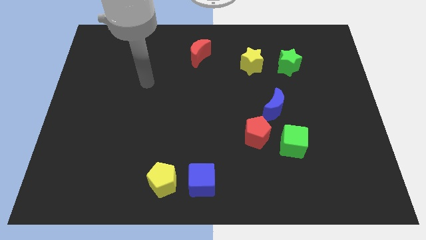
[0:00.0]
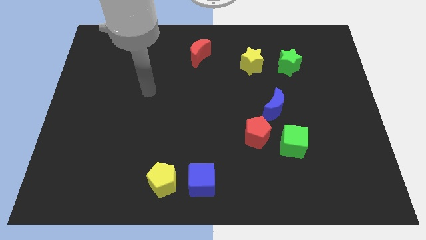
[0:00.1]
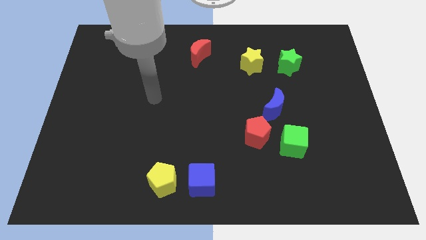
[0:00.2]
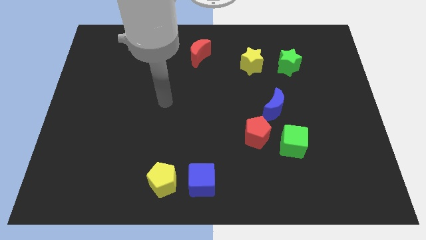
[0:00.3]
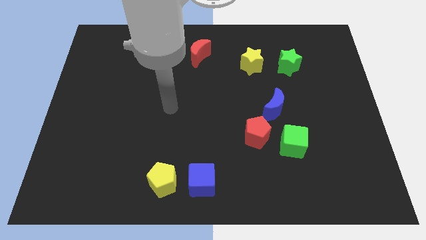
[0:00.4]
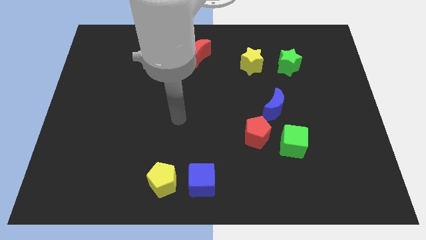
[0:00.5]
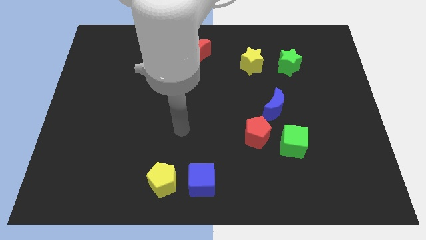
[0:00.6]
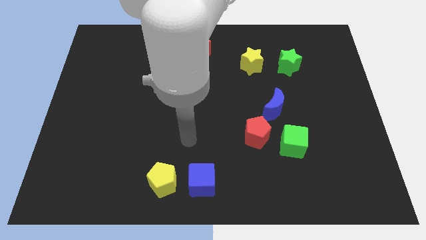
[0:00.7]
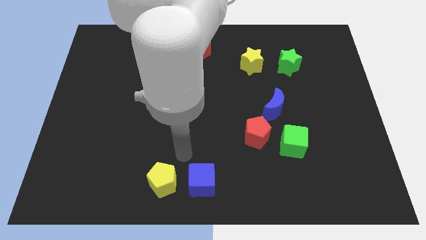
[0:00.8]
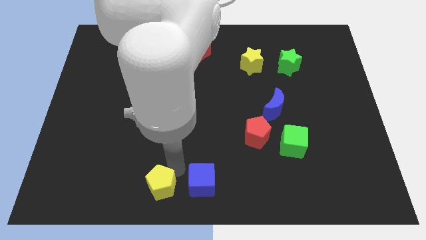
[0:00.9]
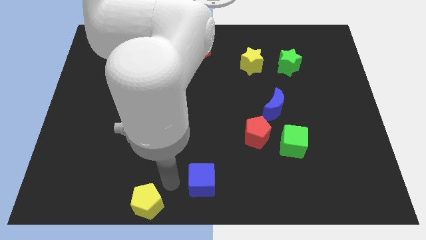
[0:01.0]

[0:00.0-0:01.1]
pull the blue cube apart from the yellow pentagon

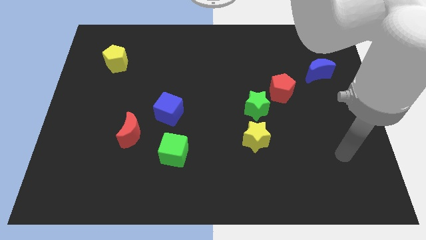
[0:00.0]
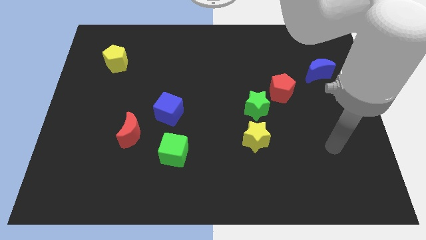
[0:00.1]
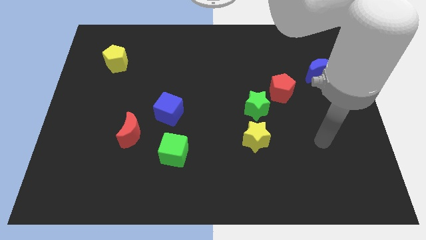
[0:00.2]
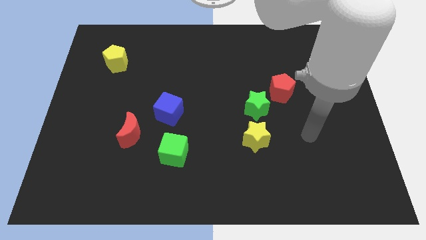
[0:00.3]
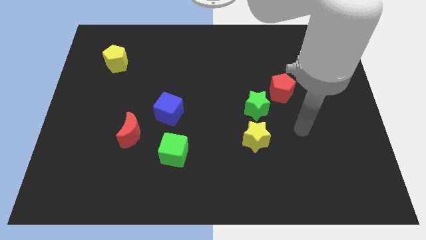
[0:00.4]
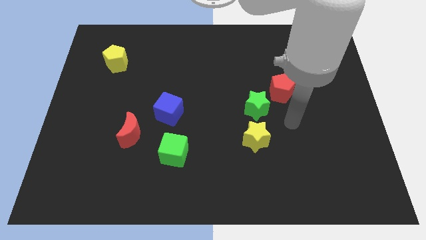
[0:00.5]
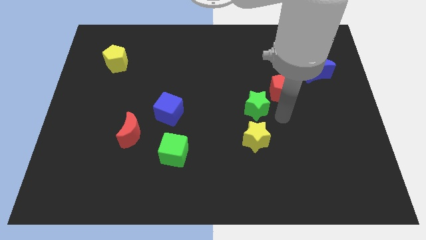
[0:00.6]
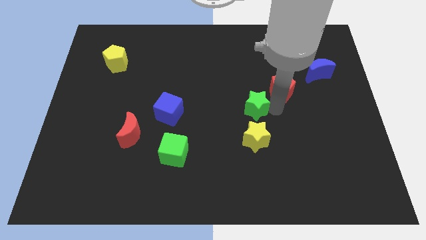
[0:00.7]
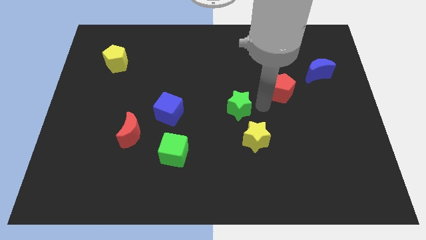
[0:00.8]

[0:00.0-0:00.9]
move the red pentagon away from the green star

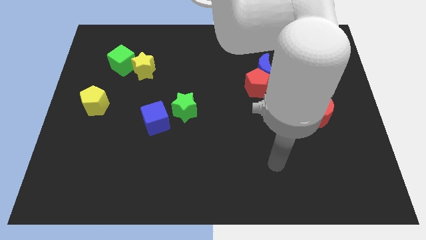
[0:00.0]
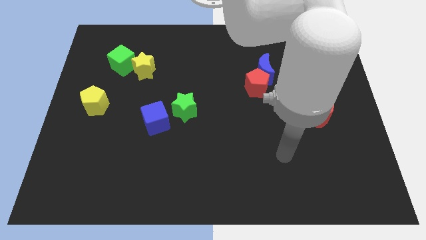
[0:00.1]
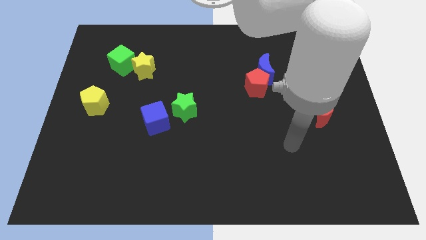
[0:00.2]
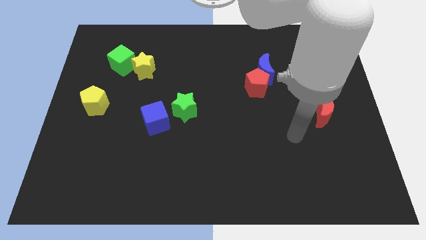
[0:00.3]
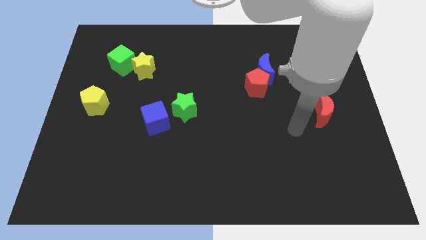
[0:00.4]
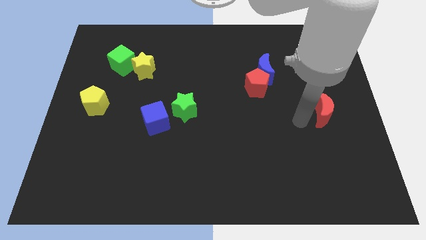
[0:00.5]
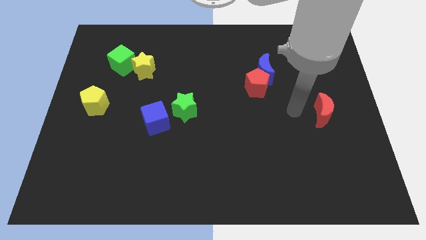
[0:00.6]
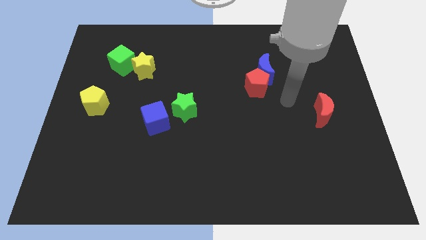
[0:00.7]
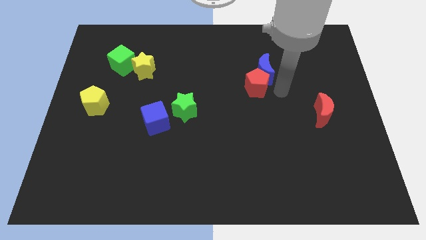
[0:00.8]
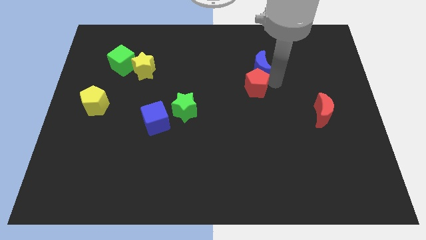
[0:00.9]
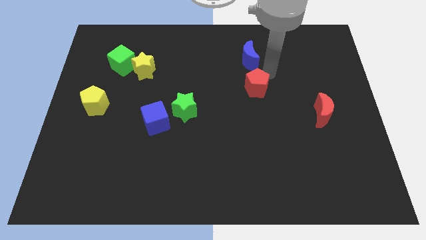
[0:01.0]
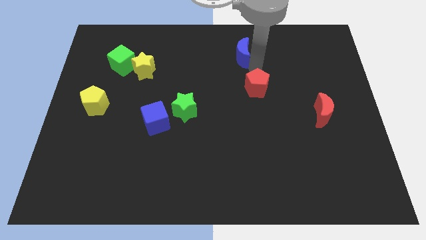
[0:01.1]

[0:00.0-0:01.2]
separate the red pentagon from the blue moon

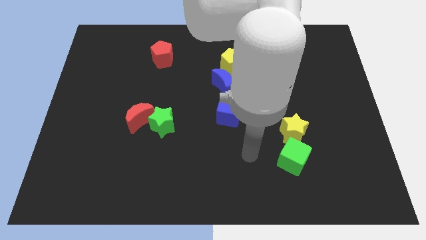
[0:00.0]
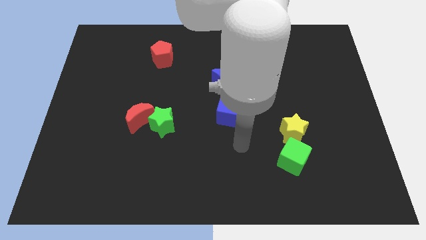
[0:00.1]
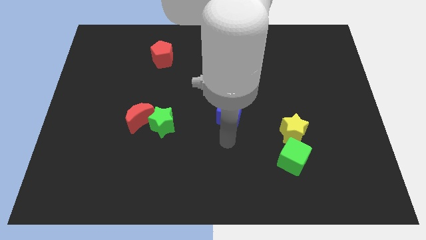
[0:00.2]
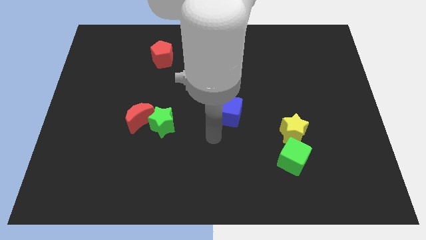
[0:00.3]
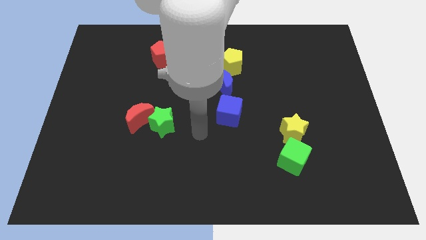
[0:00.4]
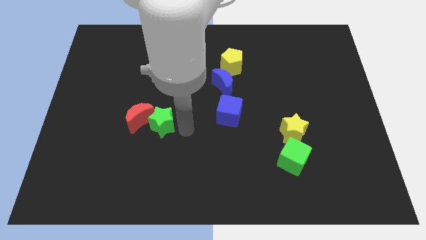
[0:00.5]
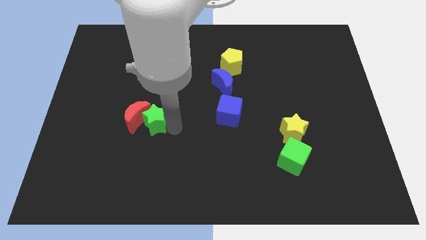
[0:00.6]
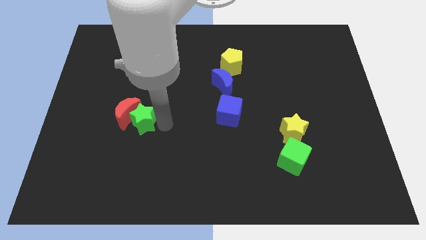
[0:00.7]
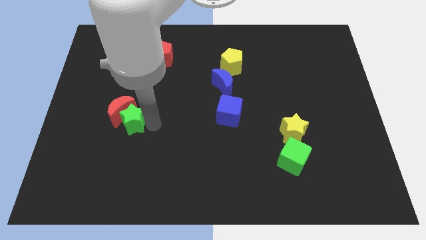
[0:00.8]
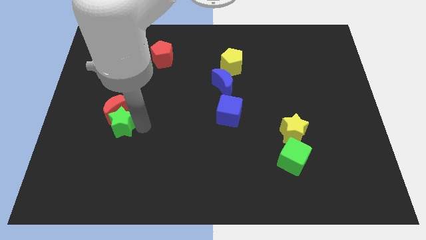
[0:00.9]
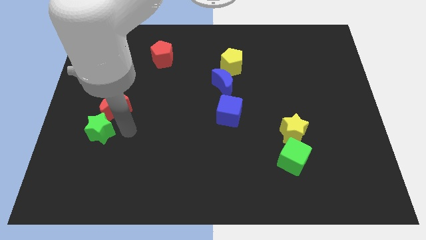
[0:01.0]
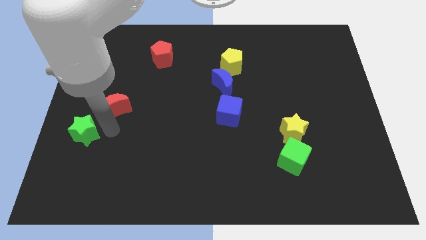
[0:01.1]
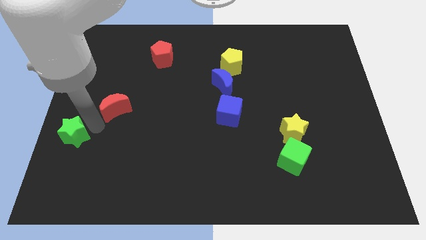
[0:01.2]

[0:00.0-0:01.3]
separate the red moon from the green star

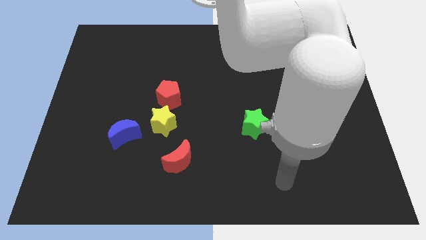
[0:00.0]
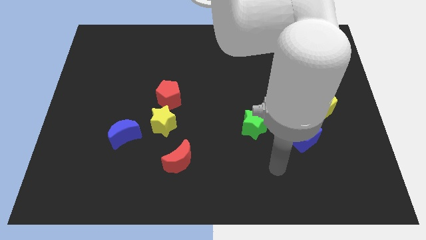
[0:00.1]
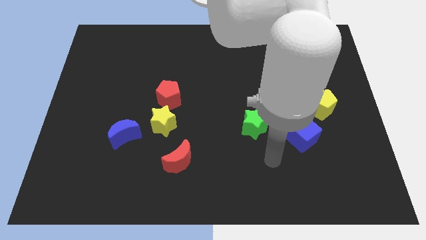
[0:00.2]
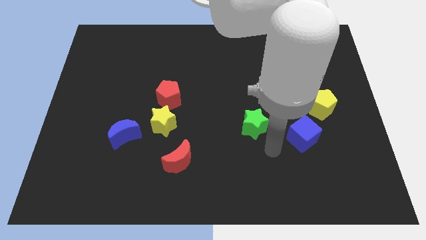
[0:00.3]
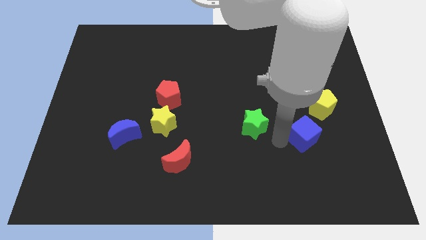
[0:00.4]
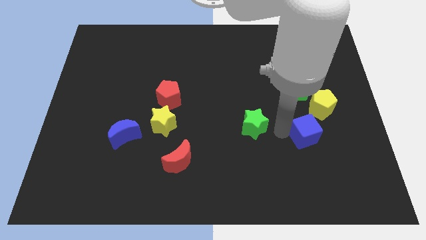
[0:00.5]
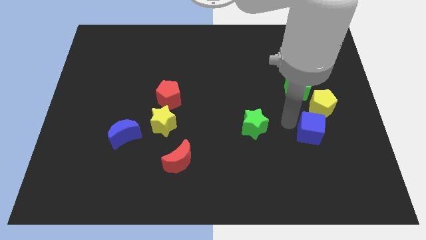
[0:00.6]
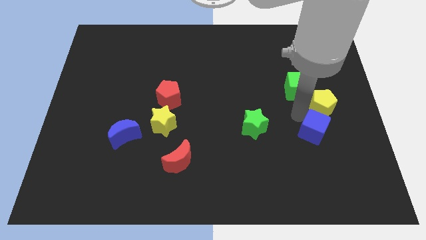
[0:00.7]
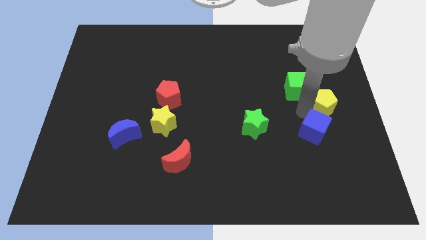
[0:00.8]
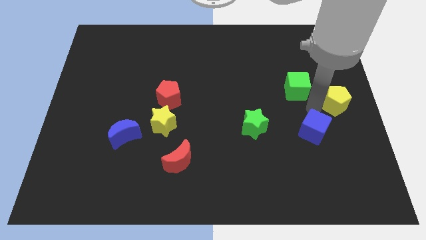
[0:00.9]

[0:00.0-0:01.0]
pull the green cube apart from the yellow pentagon

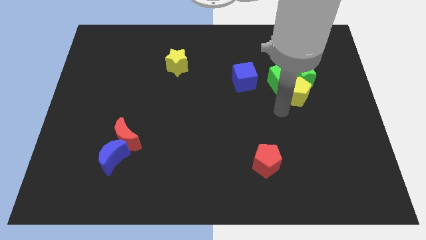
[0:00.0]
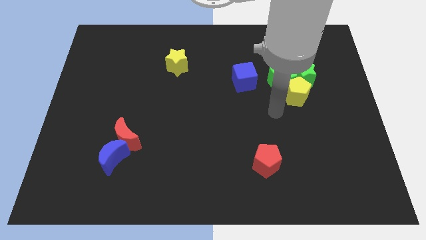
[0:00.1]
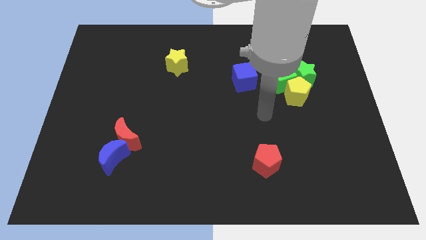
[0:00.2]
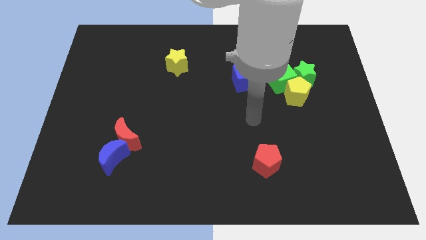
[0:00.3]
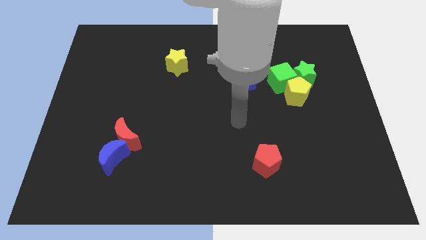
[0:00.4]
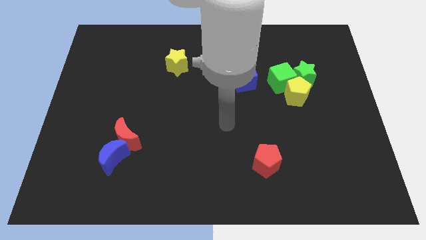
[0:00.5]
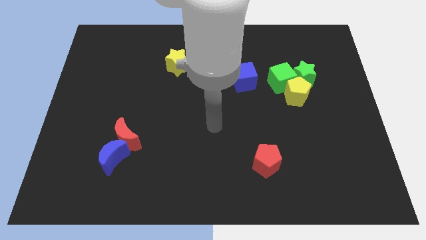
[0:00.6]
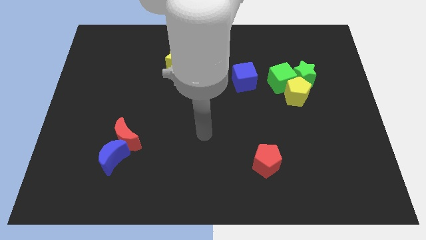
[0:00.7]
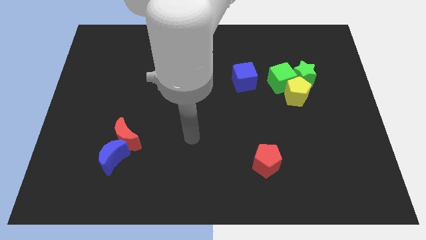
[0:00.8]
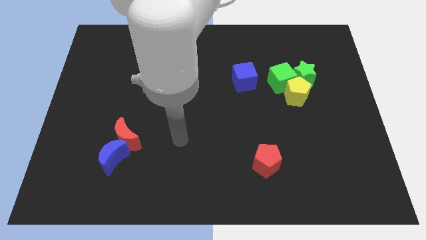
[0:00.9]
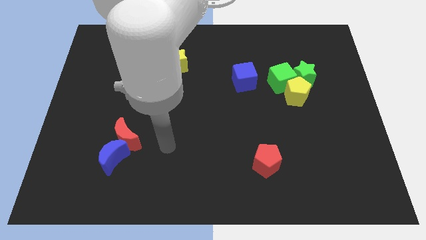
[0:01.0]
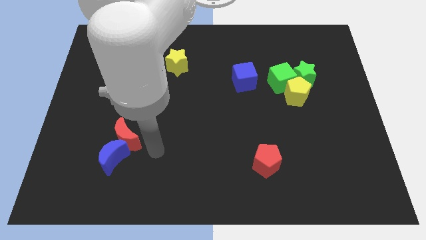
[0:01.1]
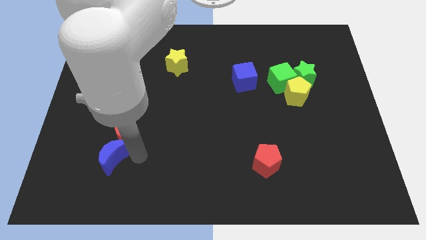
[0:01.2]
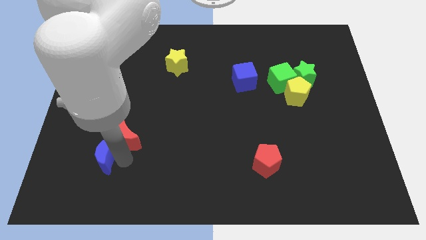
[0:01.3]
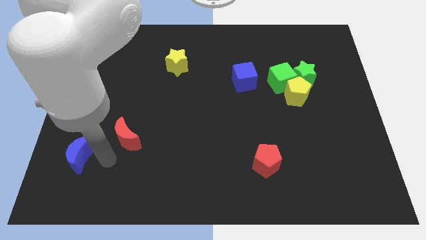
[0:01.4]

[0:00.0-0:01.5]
pull the red moon apart from the blue moon

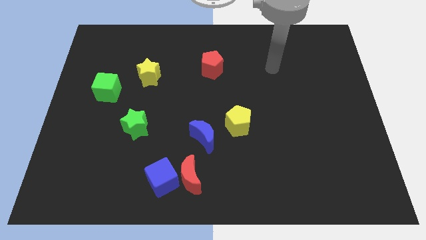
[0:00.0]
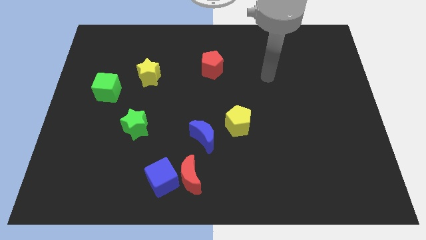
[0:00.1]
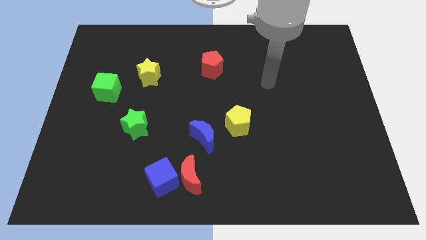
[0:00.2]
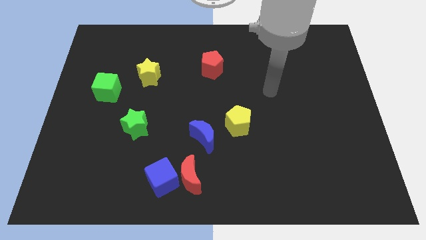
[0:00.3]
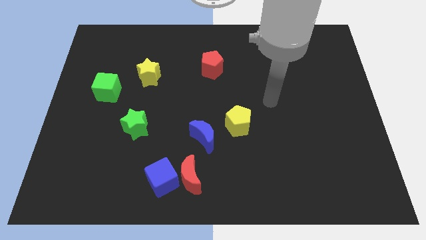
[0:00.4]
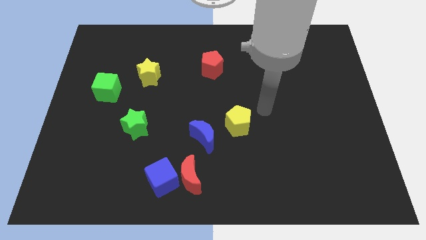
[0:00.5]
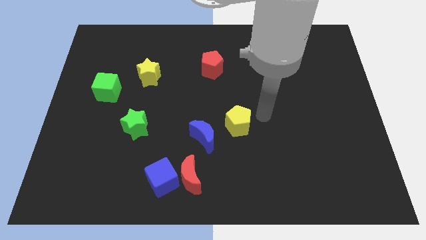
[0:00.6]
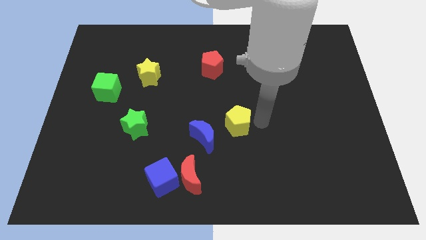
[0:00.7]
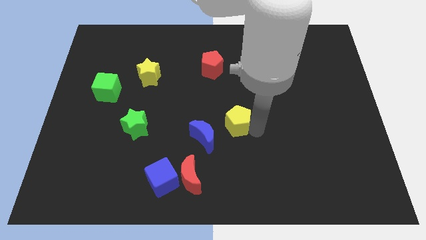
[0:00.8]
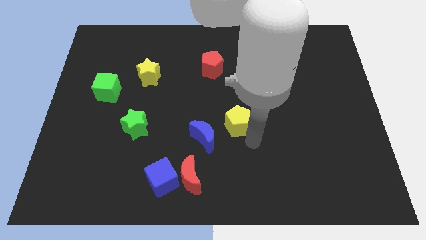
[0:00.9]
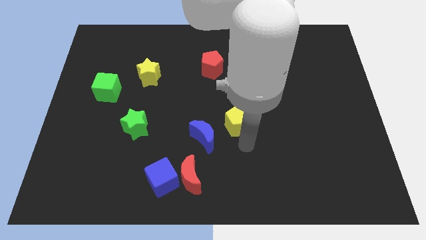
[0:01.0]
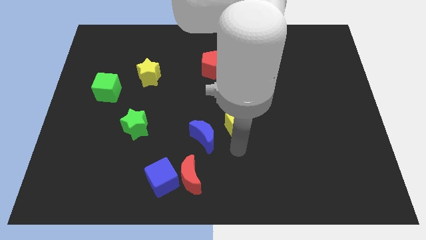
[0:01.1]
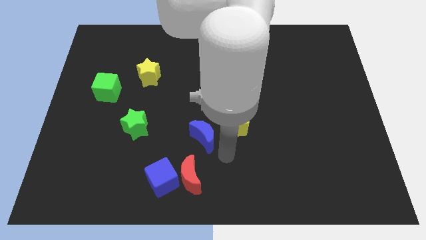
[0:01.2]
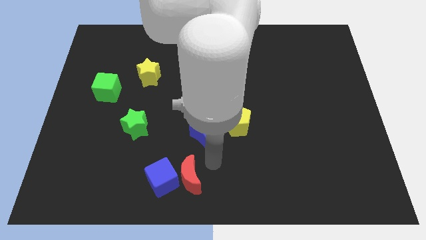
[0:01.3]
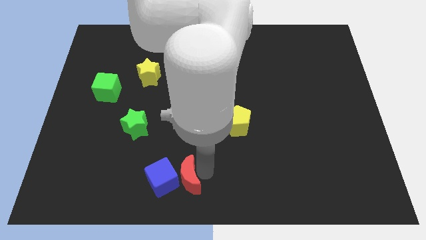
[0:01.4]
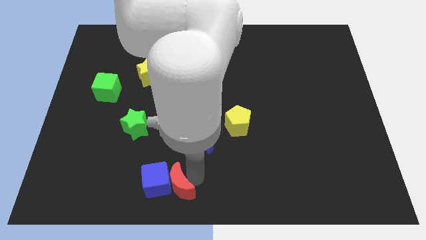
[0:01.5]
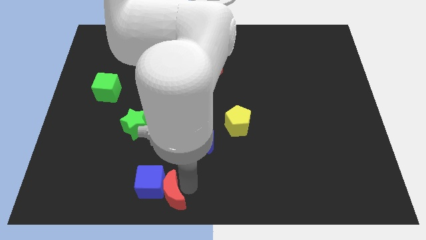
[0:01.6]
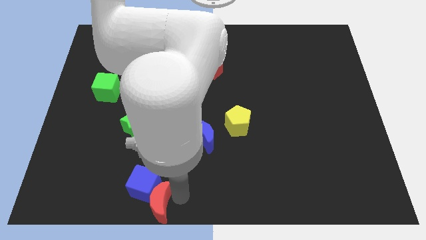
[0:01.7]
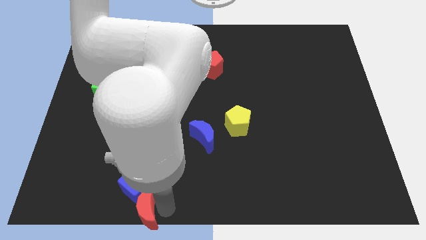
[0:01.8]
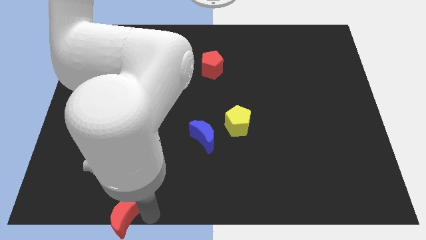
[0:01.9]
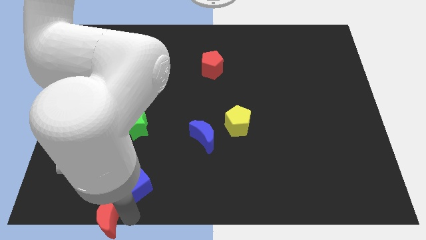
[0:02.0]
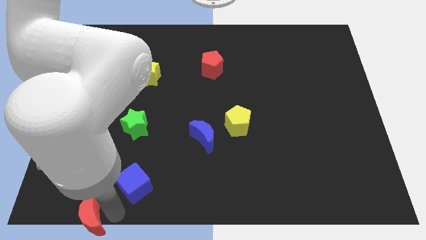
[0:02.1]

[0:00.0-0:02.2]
pull the blue cube apart from the red moon

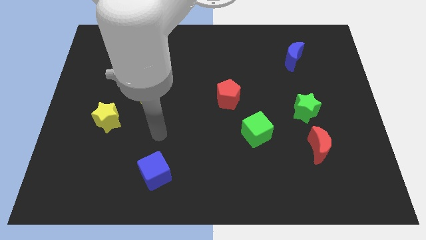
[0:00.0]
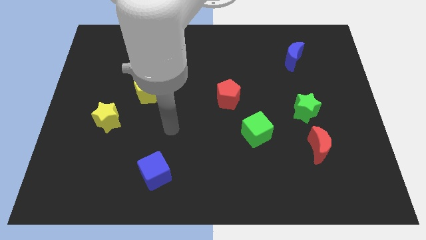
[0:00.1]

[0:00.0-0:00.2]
move the red moon away from the green star

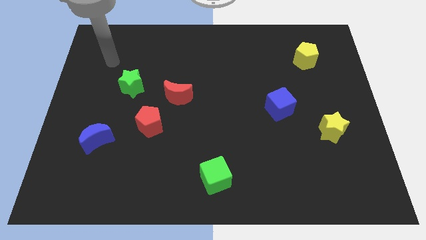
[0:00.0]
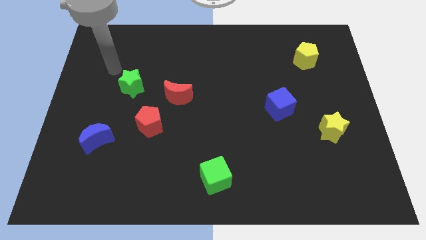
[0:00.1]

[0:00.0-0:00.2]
move the red moon away from the red pentagon
